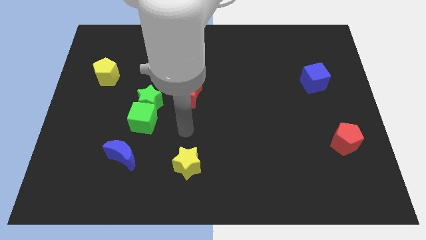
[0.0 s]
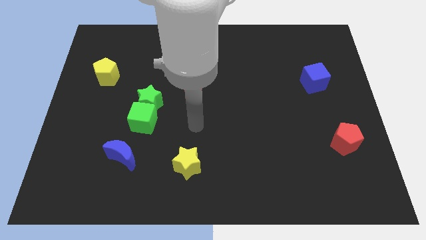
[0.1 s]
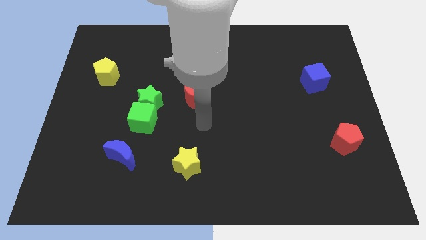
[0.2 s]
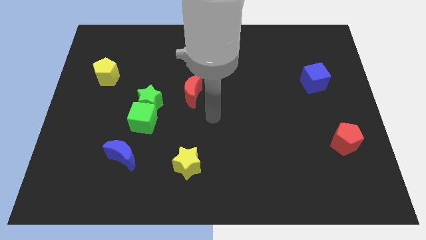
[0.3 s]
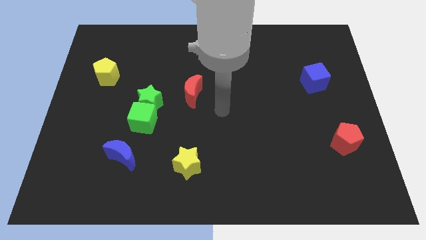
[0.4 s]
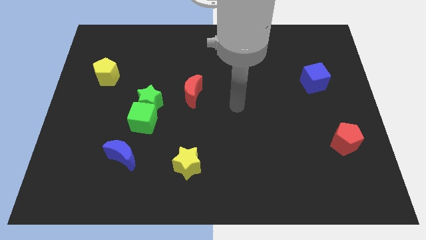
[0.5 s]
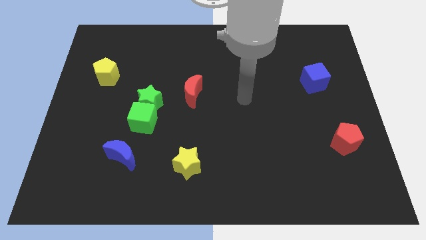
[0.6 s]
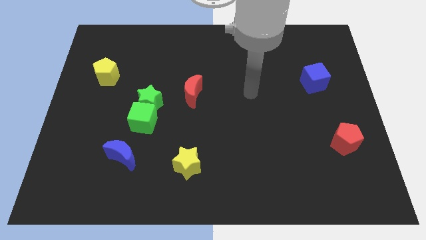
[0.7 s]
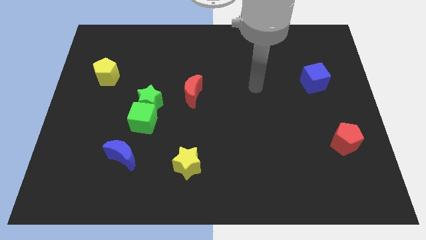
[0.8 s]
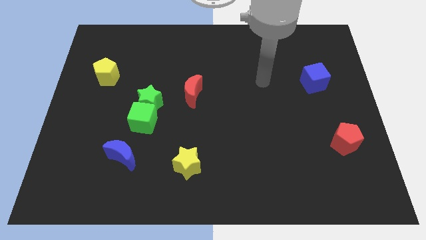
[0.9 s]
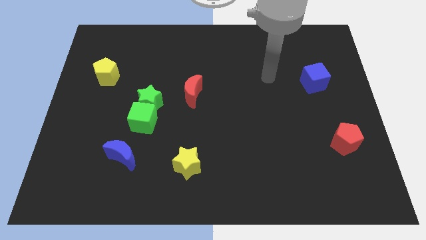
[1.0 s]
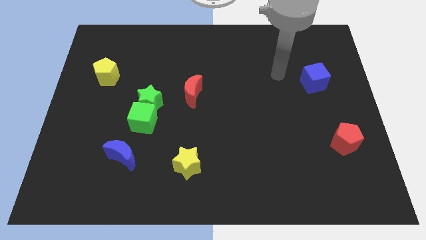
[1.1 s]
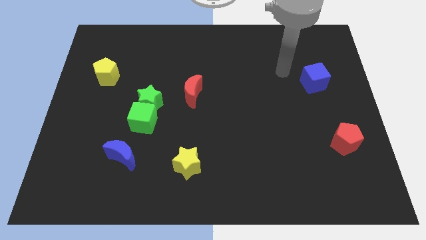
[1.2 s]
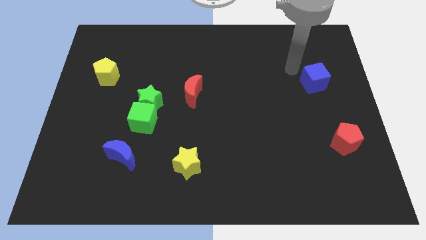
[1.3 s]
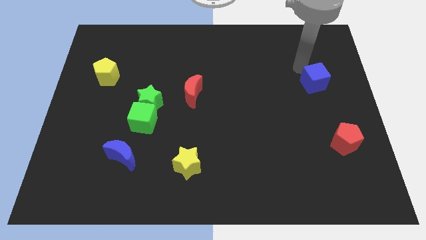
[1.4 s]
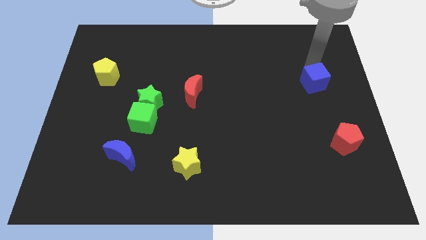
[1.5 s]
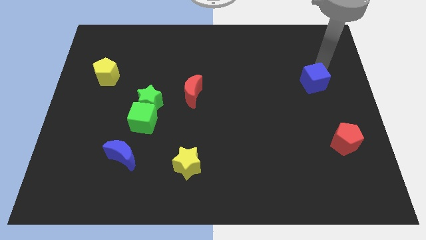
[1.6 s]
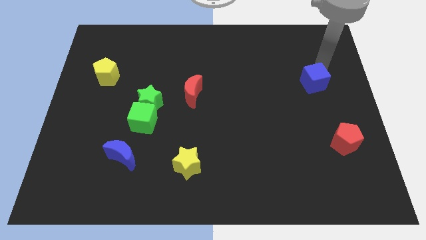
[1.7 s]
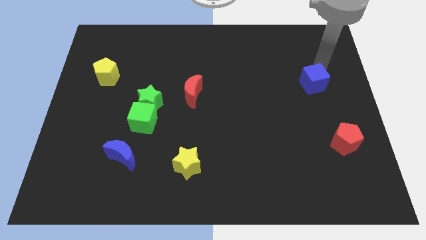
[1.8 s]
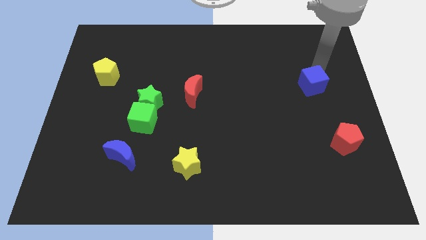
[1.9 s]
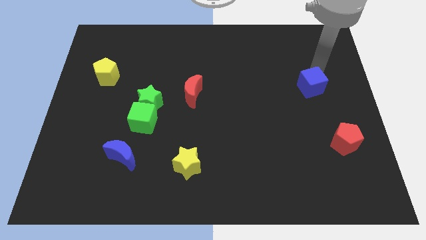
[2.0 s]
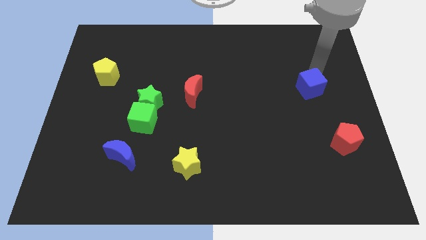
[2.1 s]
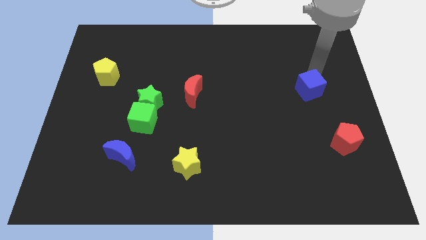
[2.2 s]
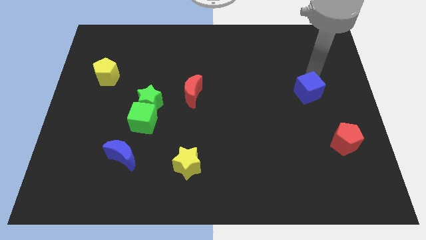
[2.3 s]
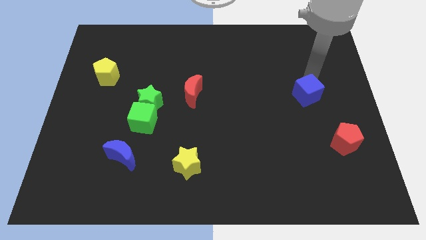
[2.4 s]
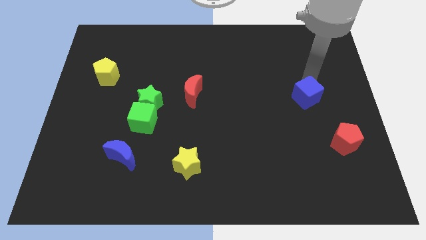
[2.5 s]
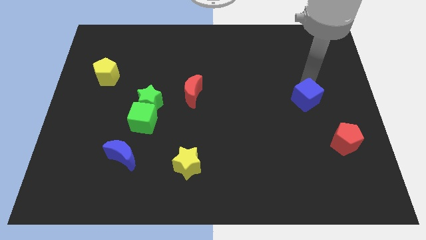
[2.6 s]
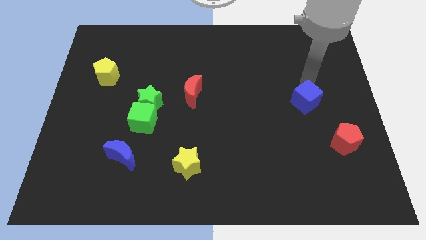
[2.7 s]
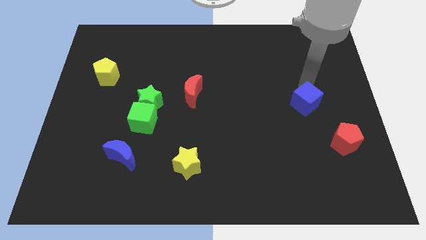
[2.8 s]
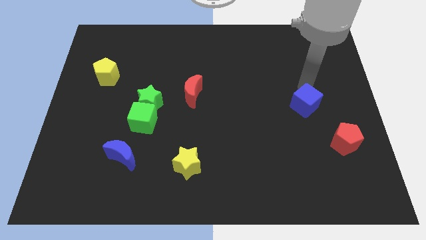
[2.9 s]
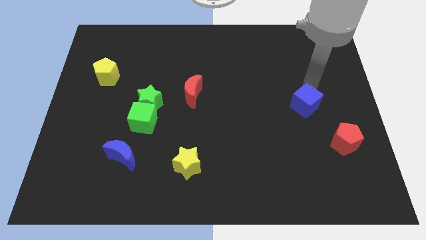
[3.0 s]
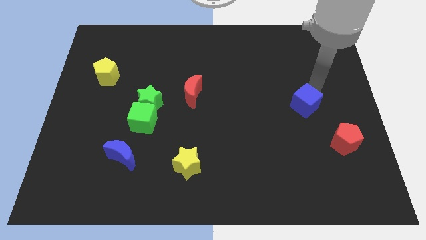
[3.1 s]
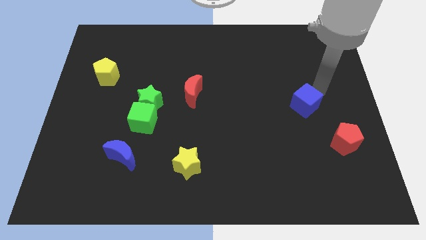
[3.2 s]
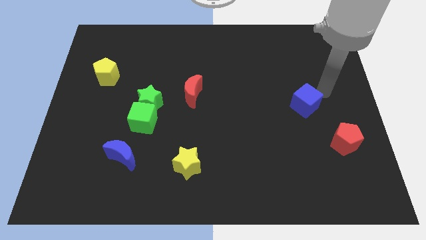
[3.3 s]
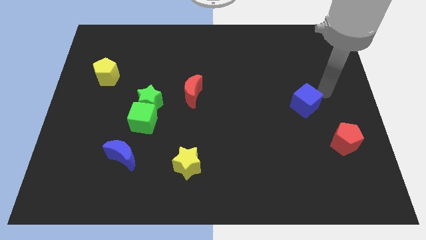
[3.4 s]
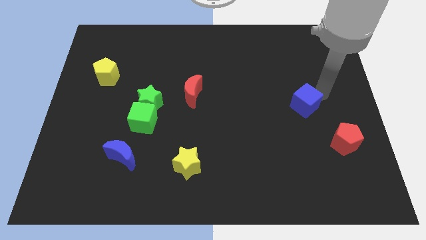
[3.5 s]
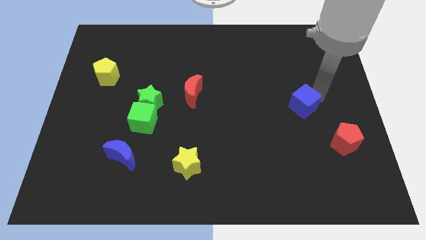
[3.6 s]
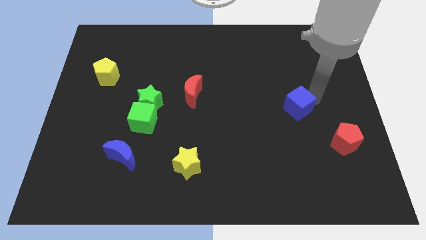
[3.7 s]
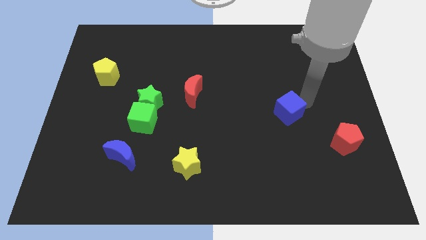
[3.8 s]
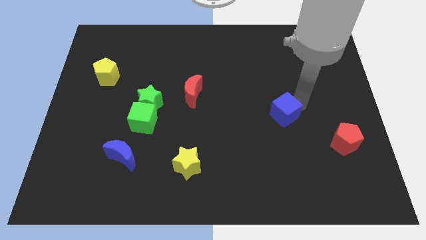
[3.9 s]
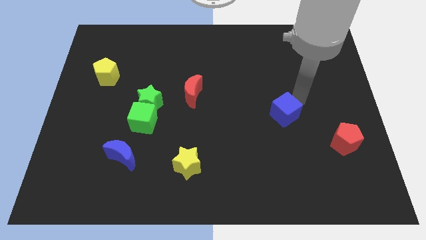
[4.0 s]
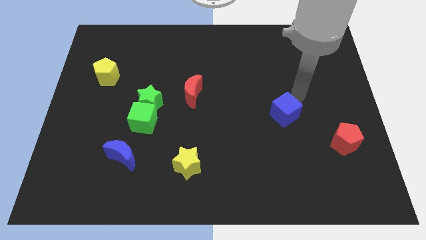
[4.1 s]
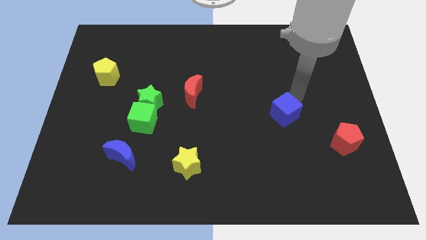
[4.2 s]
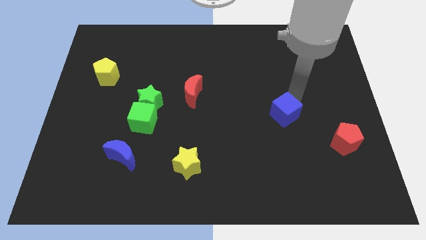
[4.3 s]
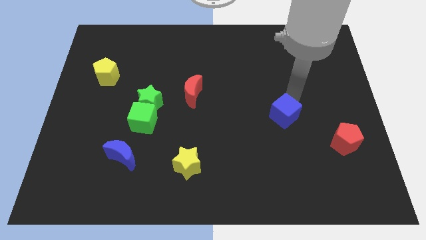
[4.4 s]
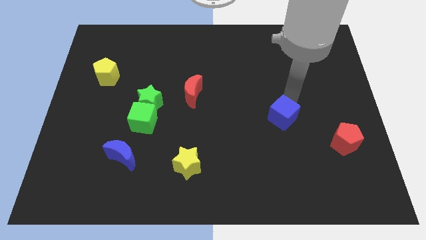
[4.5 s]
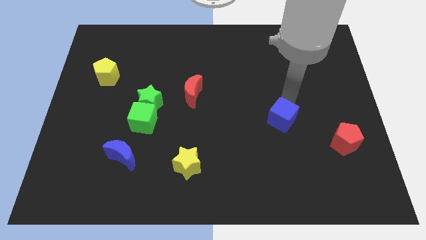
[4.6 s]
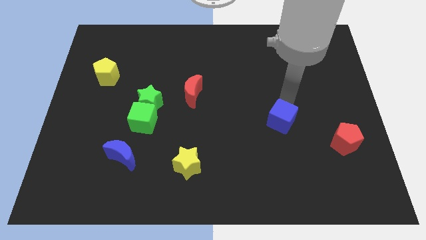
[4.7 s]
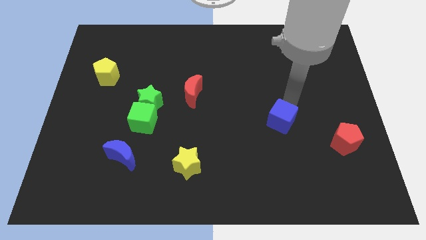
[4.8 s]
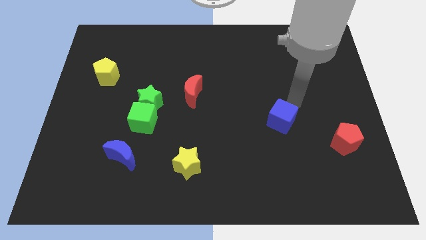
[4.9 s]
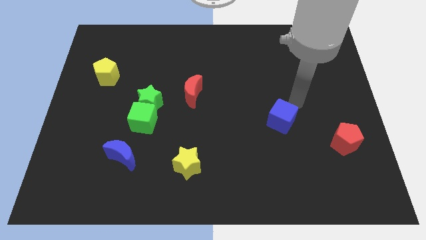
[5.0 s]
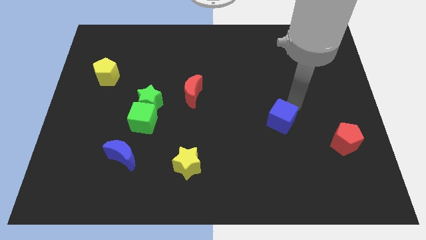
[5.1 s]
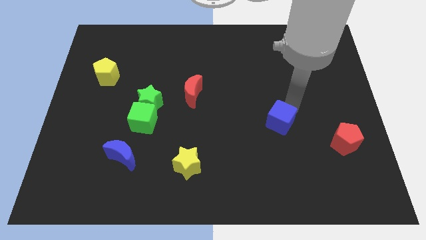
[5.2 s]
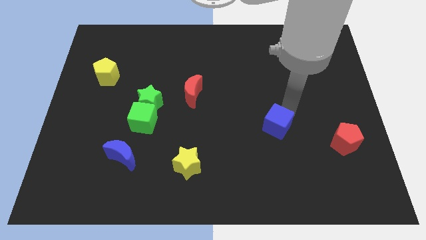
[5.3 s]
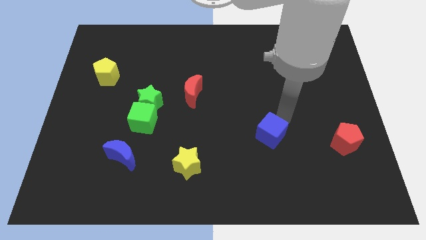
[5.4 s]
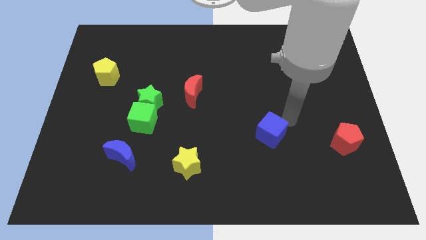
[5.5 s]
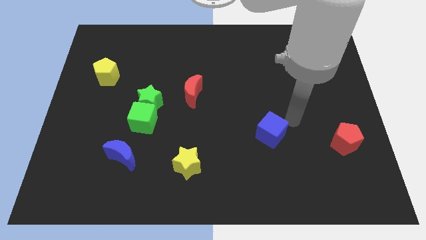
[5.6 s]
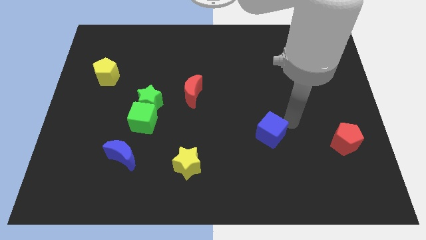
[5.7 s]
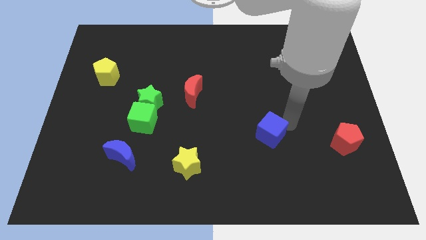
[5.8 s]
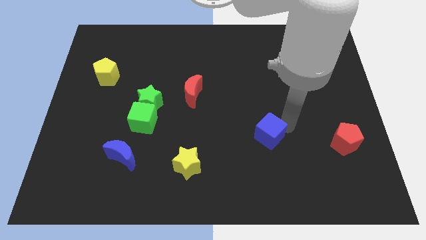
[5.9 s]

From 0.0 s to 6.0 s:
move the blue cube down and then left

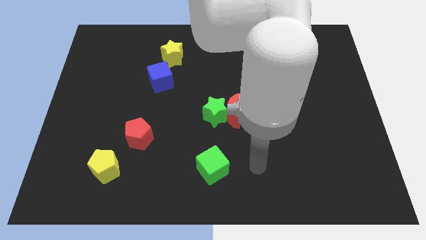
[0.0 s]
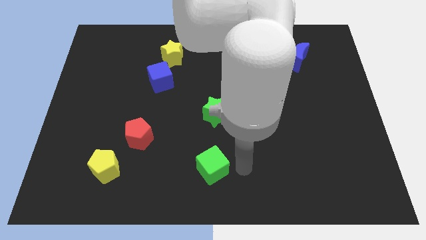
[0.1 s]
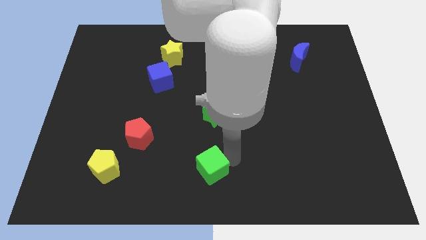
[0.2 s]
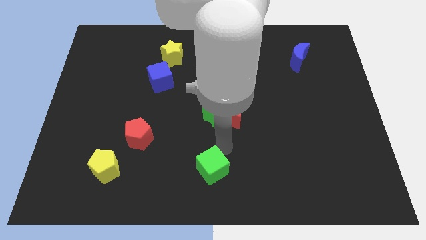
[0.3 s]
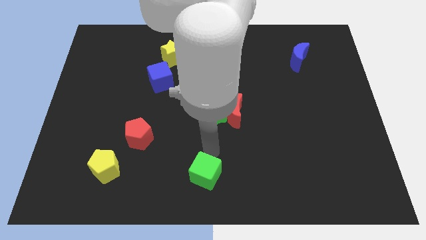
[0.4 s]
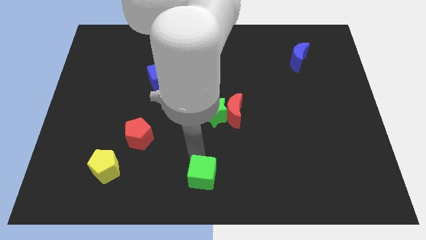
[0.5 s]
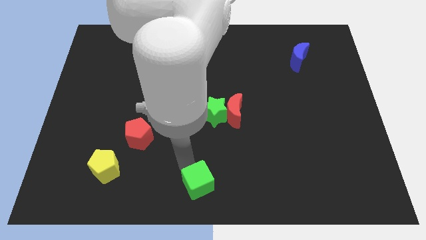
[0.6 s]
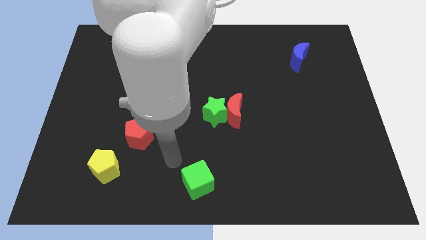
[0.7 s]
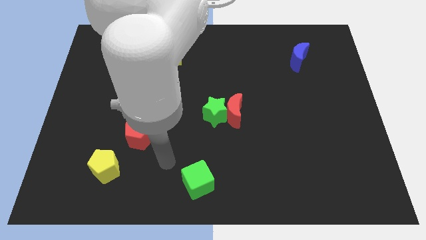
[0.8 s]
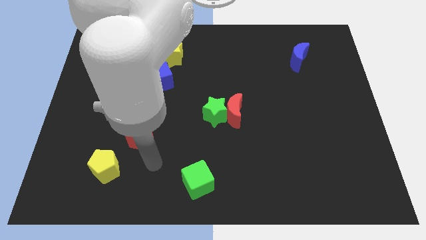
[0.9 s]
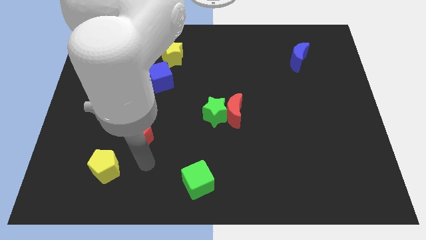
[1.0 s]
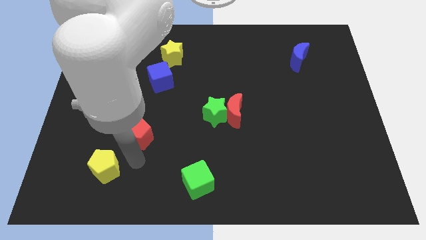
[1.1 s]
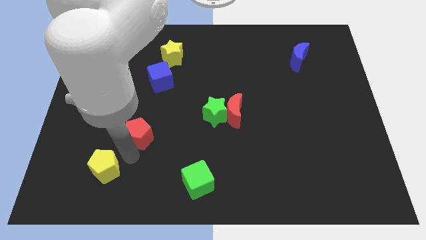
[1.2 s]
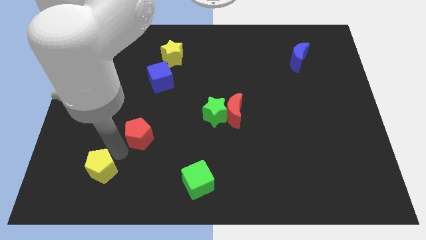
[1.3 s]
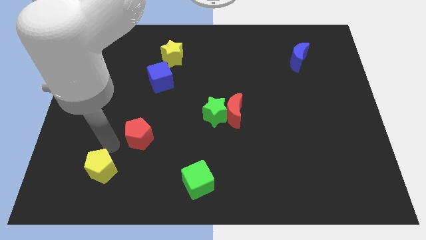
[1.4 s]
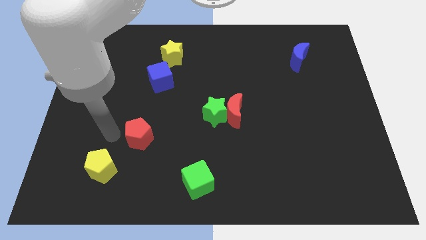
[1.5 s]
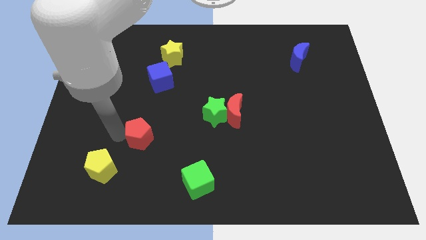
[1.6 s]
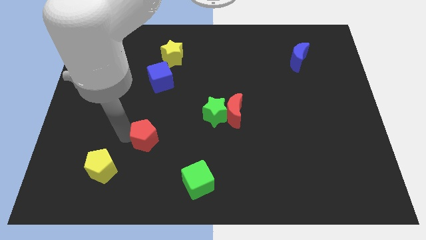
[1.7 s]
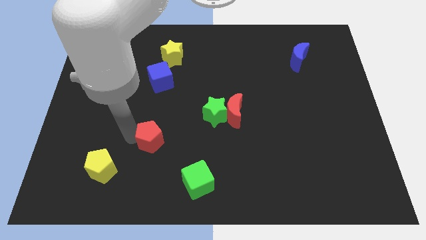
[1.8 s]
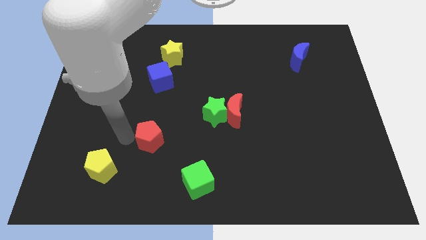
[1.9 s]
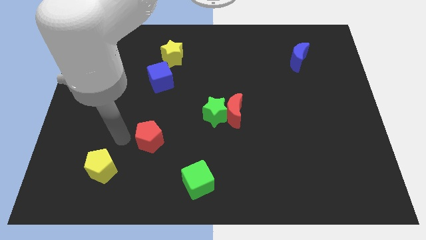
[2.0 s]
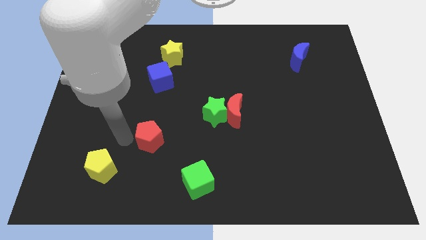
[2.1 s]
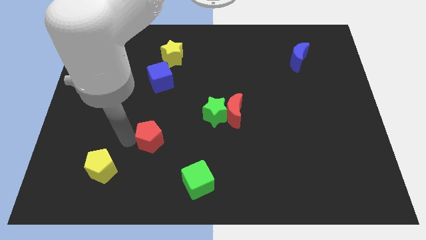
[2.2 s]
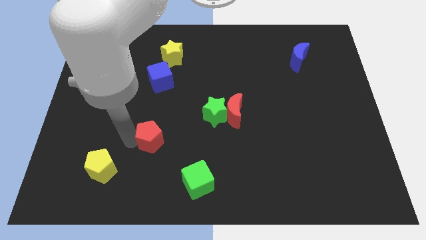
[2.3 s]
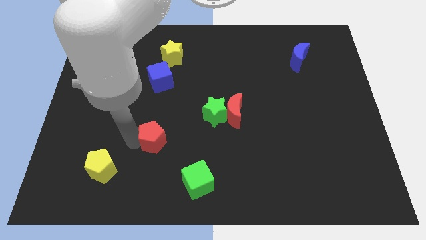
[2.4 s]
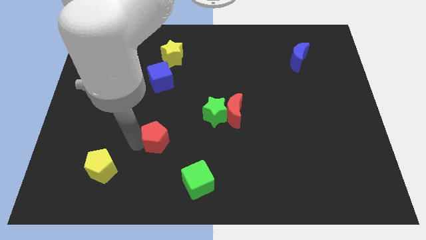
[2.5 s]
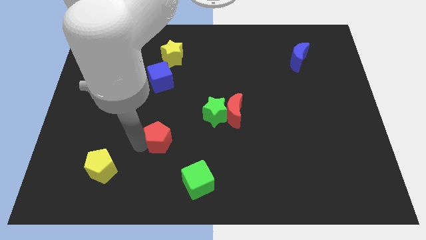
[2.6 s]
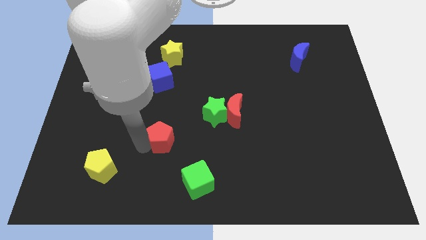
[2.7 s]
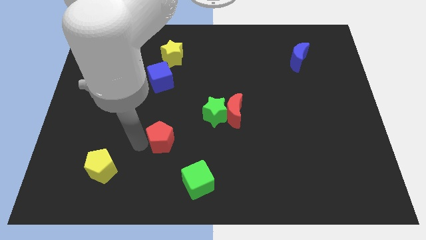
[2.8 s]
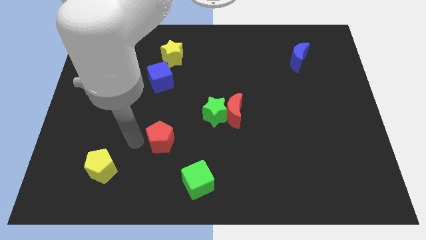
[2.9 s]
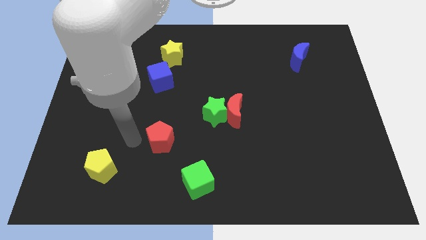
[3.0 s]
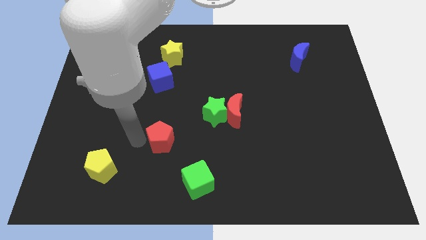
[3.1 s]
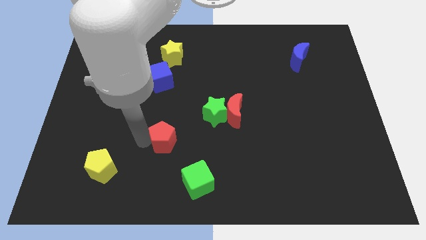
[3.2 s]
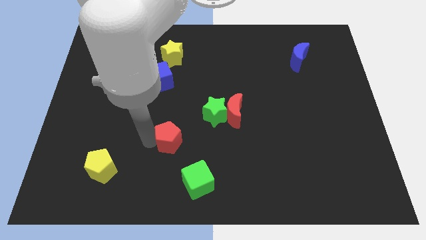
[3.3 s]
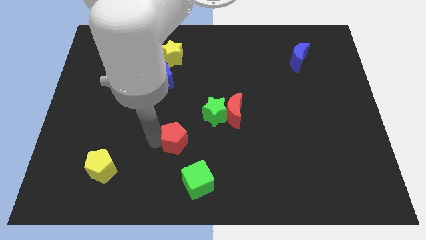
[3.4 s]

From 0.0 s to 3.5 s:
move the red pentagon to the right somewhat
